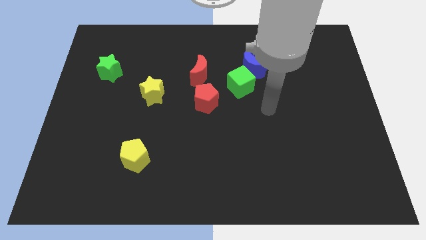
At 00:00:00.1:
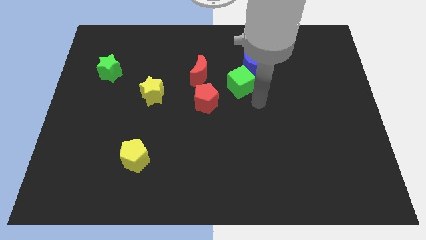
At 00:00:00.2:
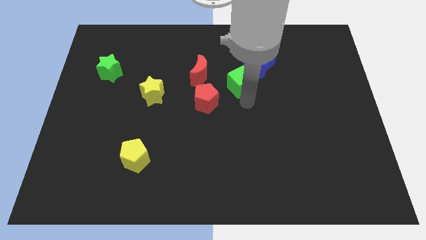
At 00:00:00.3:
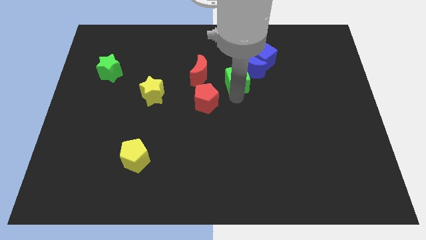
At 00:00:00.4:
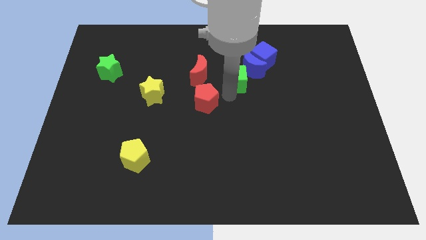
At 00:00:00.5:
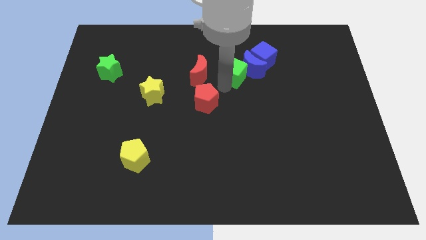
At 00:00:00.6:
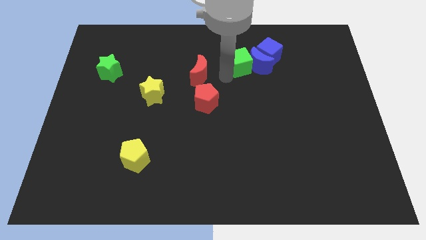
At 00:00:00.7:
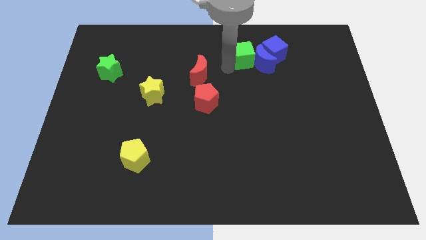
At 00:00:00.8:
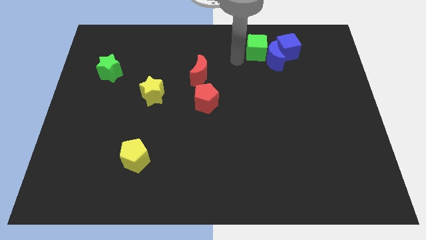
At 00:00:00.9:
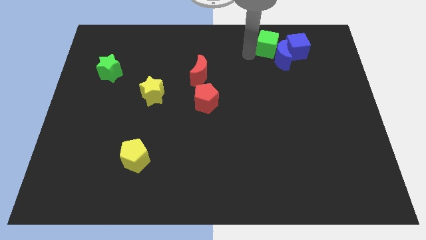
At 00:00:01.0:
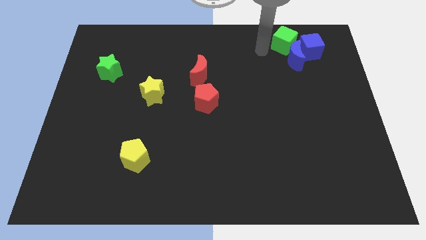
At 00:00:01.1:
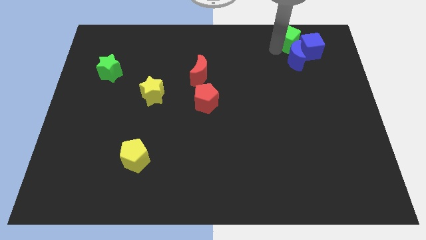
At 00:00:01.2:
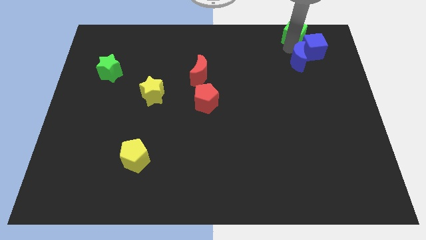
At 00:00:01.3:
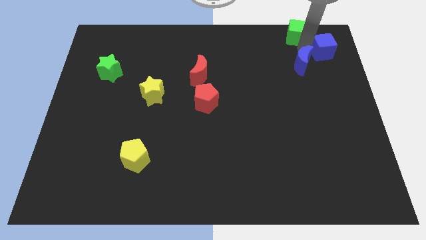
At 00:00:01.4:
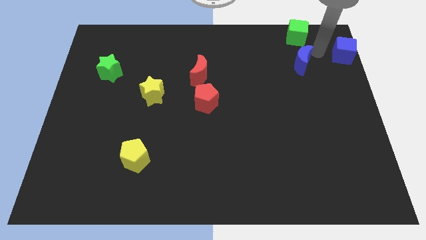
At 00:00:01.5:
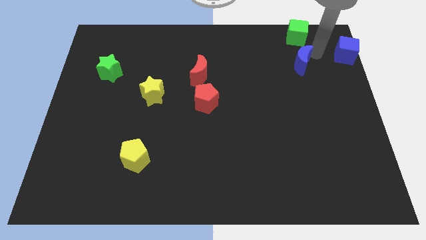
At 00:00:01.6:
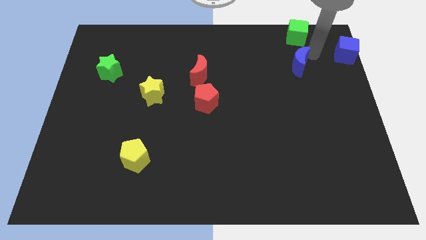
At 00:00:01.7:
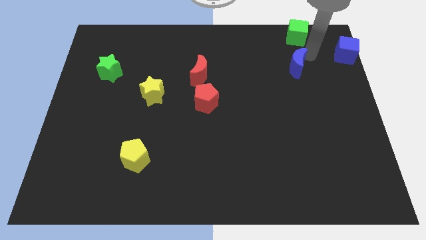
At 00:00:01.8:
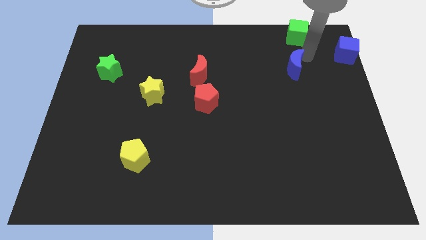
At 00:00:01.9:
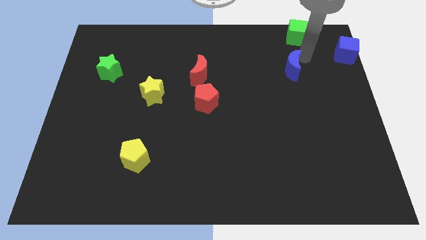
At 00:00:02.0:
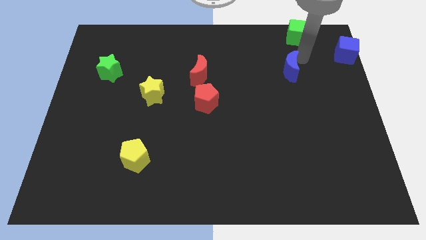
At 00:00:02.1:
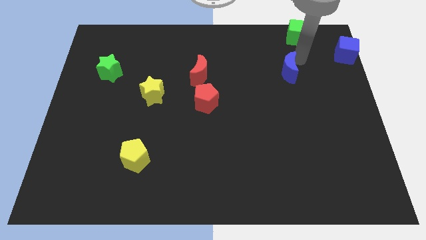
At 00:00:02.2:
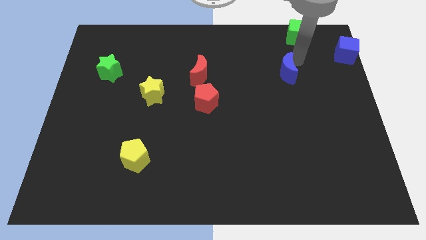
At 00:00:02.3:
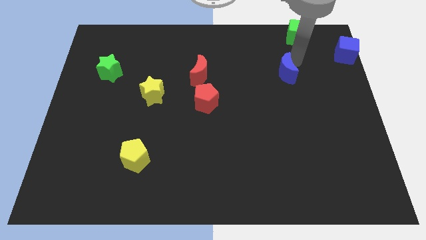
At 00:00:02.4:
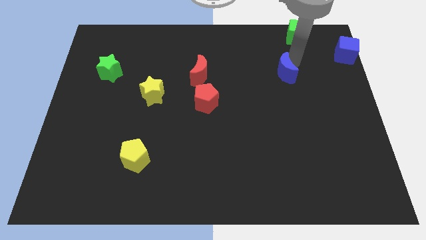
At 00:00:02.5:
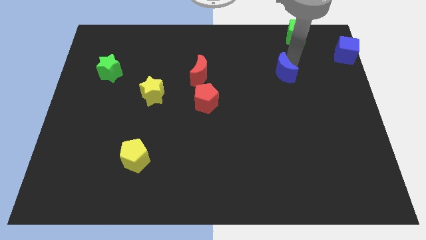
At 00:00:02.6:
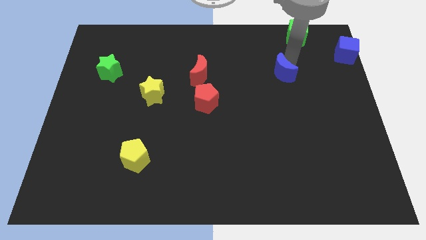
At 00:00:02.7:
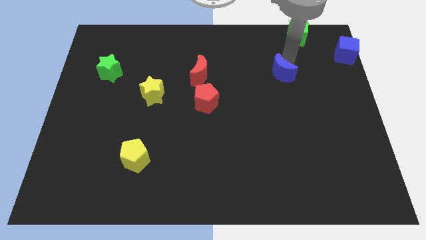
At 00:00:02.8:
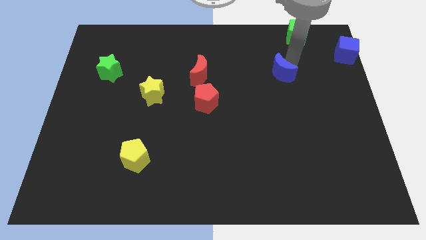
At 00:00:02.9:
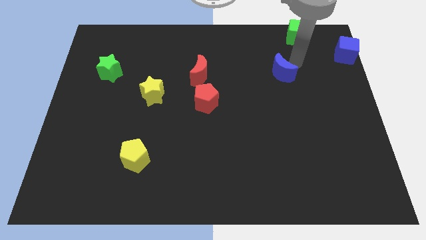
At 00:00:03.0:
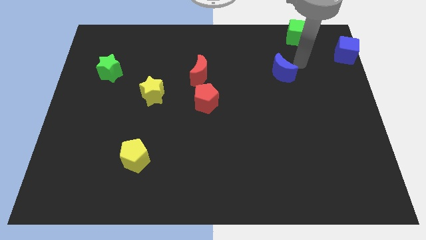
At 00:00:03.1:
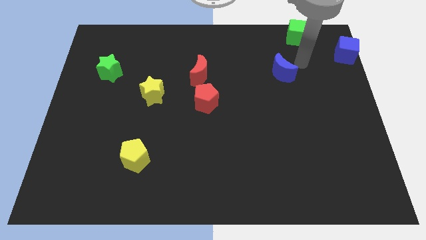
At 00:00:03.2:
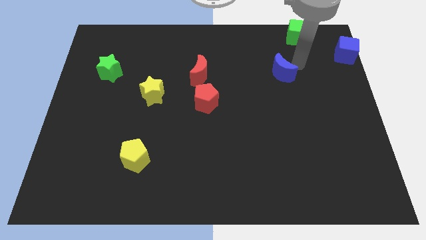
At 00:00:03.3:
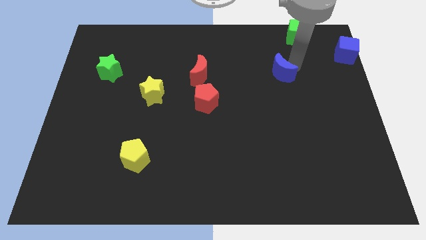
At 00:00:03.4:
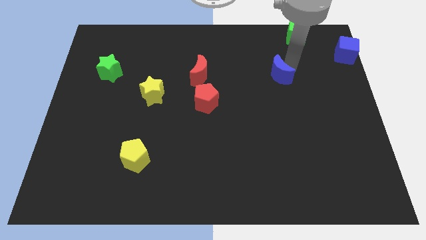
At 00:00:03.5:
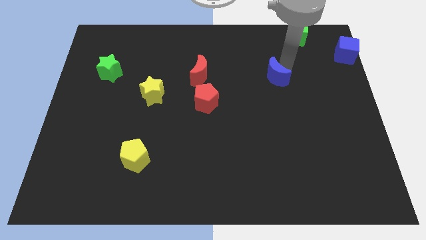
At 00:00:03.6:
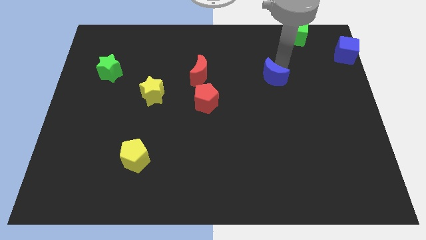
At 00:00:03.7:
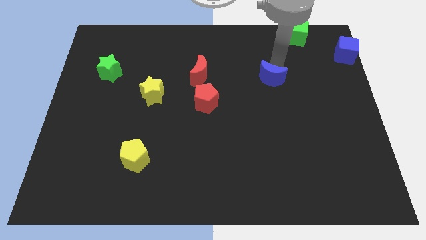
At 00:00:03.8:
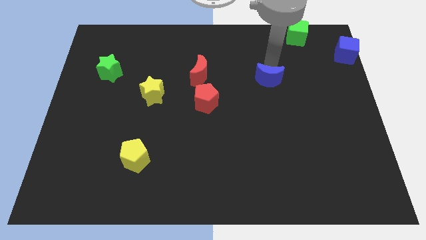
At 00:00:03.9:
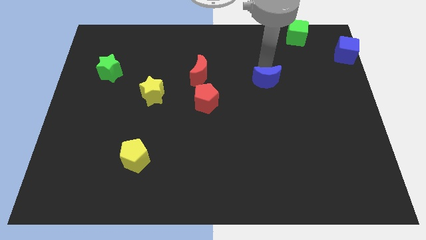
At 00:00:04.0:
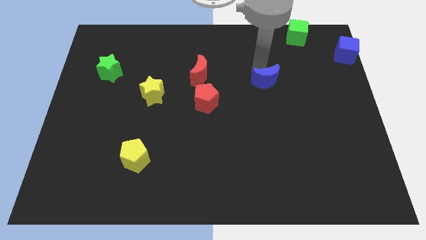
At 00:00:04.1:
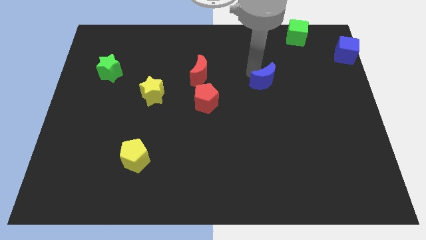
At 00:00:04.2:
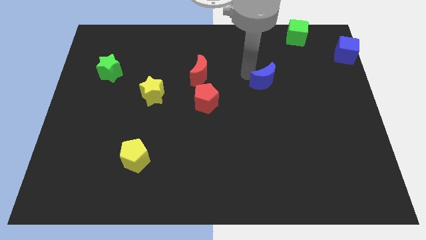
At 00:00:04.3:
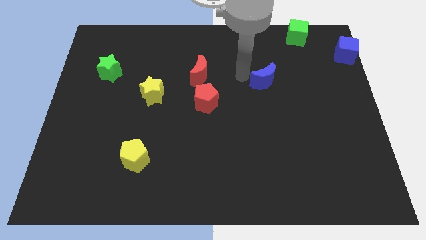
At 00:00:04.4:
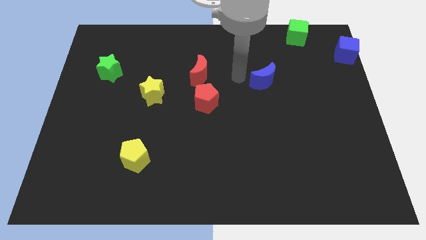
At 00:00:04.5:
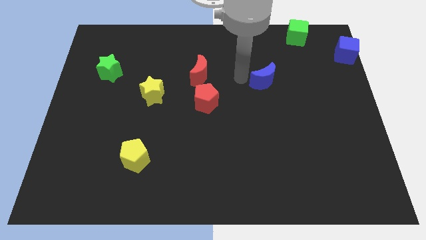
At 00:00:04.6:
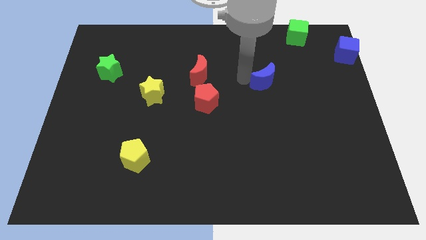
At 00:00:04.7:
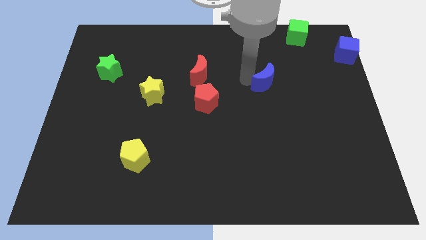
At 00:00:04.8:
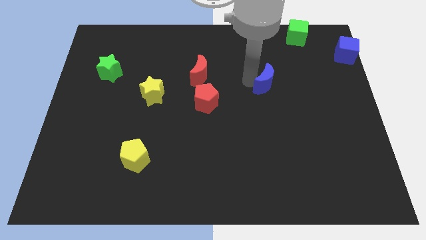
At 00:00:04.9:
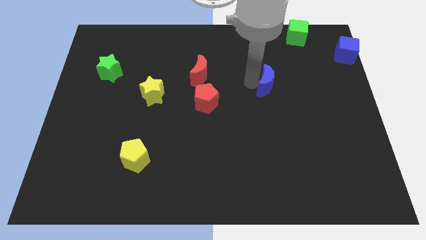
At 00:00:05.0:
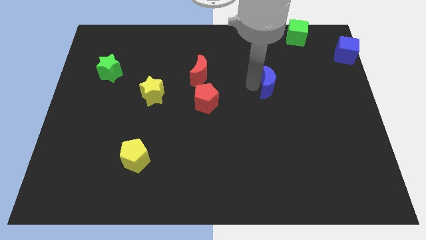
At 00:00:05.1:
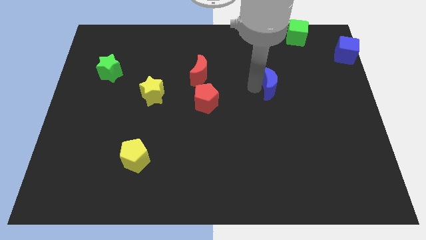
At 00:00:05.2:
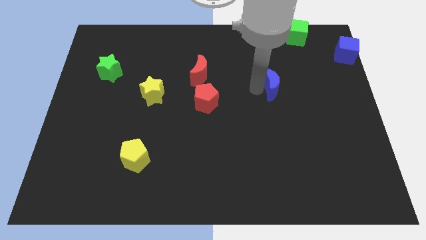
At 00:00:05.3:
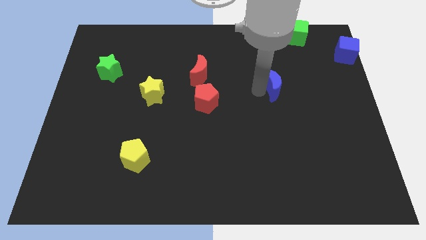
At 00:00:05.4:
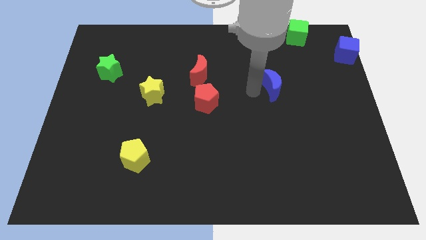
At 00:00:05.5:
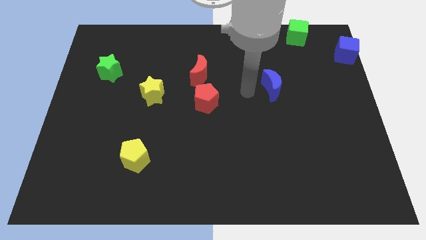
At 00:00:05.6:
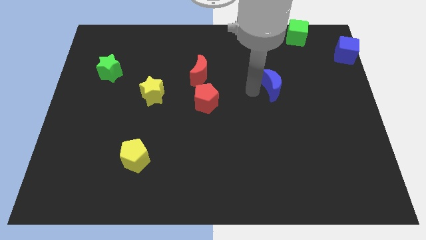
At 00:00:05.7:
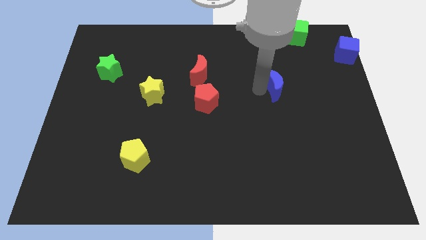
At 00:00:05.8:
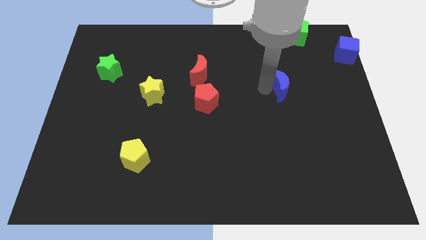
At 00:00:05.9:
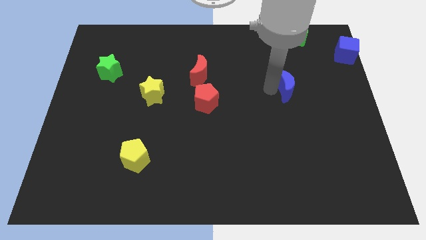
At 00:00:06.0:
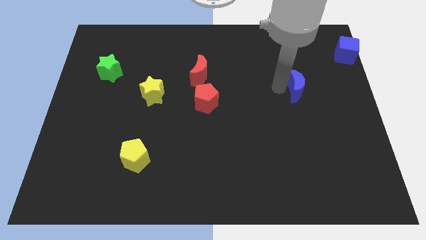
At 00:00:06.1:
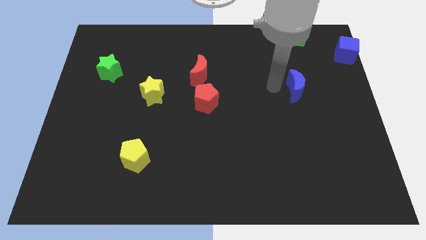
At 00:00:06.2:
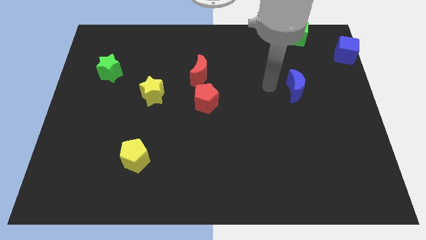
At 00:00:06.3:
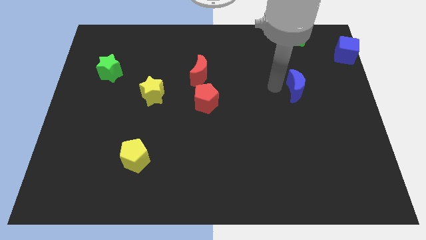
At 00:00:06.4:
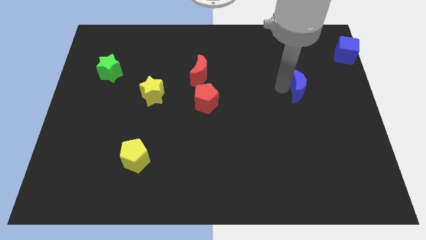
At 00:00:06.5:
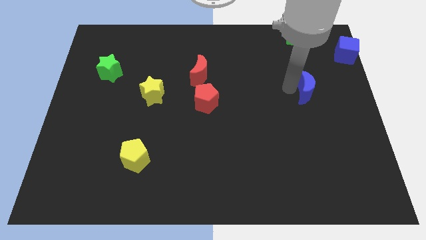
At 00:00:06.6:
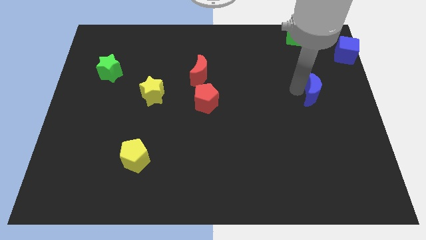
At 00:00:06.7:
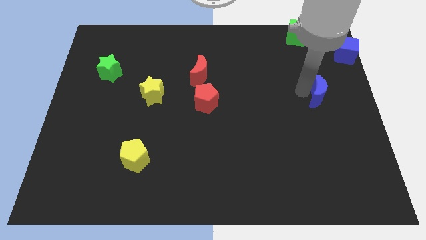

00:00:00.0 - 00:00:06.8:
put the blue moon to the right side
